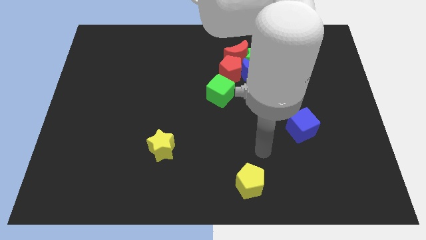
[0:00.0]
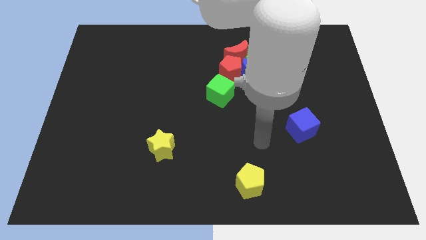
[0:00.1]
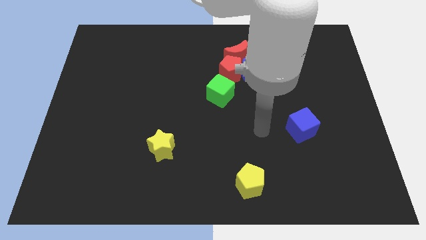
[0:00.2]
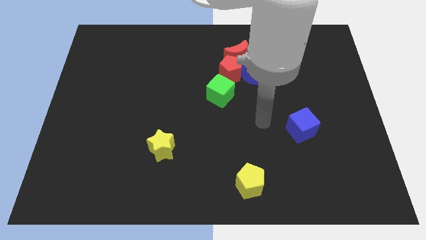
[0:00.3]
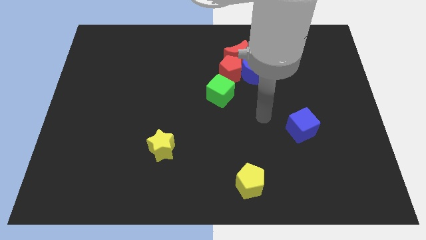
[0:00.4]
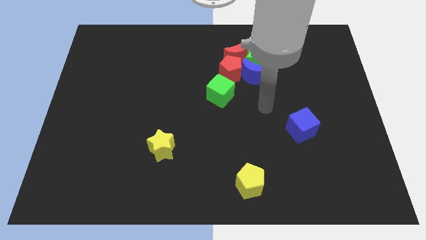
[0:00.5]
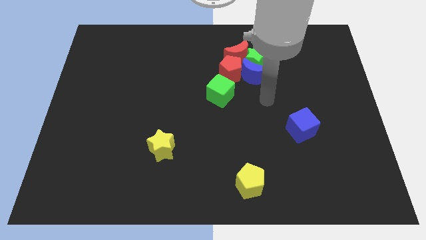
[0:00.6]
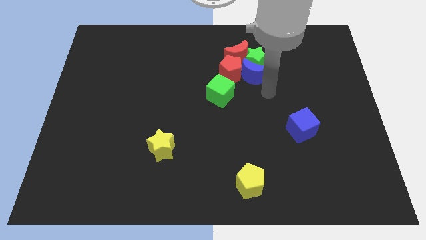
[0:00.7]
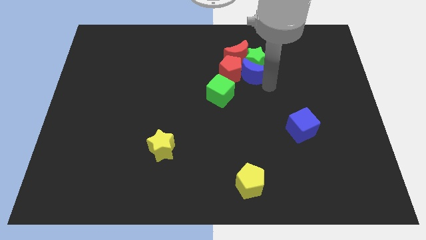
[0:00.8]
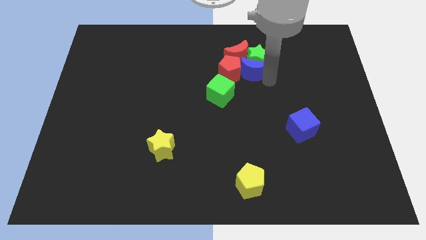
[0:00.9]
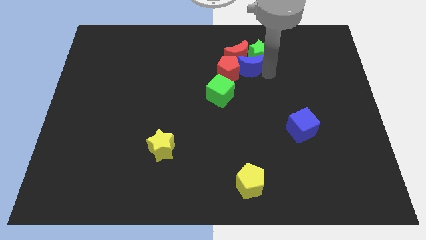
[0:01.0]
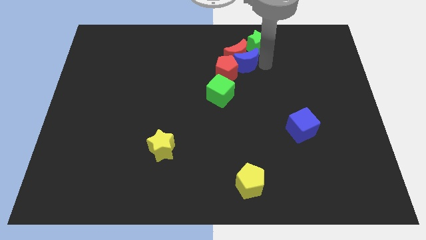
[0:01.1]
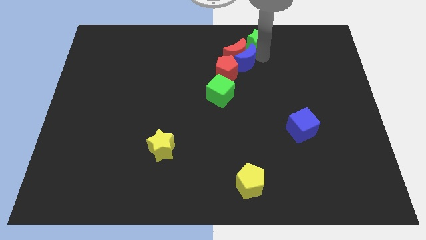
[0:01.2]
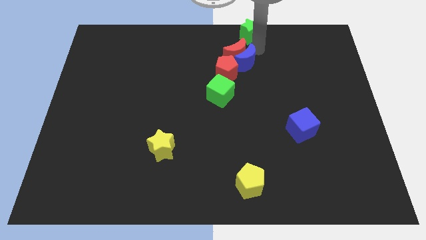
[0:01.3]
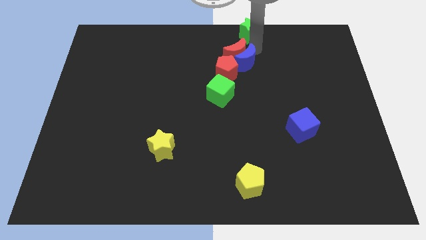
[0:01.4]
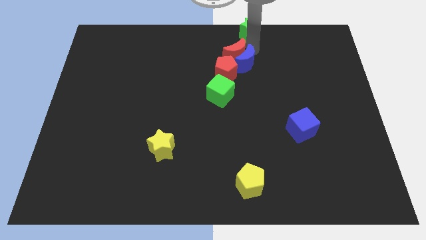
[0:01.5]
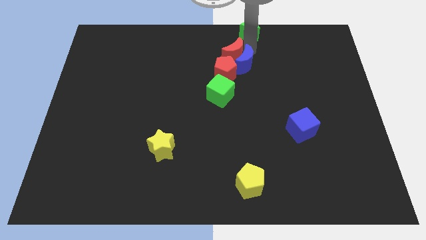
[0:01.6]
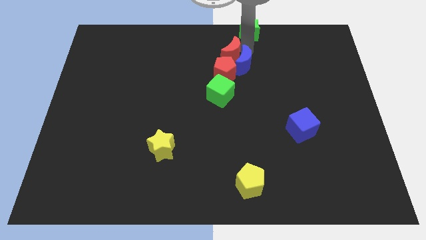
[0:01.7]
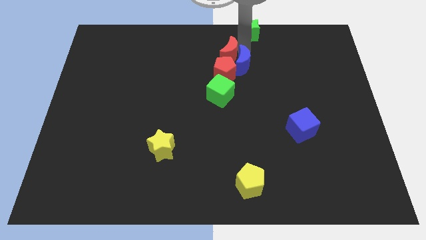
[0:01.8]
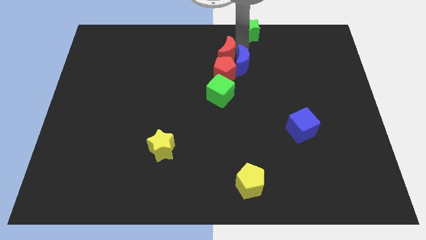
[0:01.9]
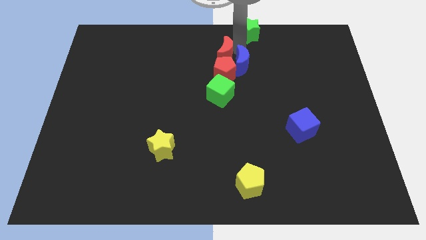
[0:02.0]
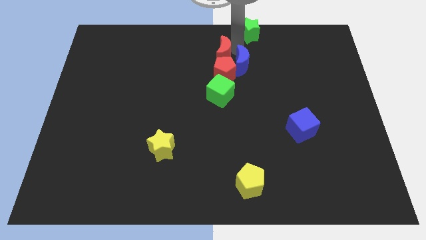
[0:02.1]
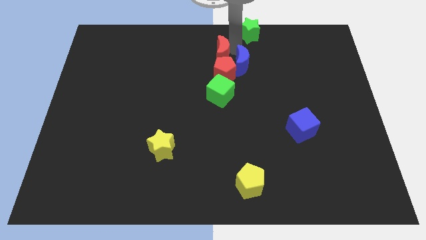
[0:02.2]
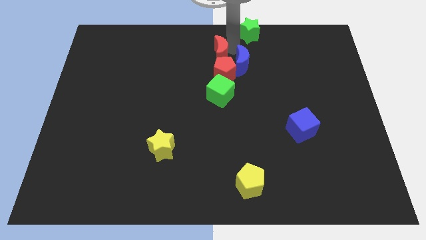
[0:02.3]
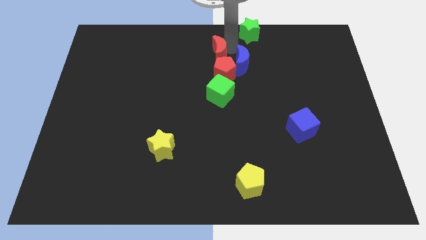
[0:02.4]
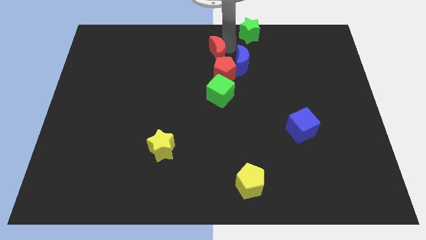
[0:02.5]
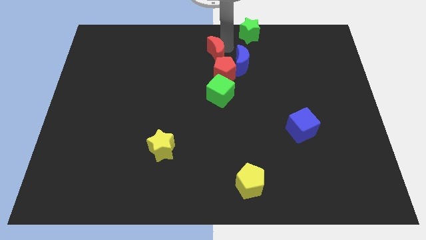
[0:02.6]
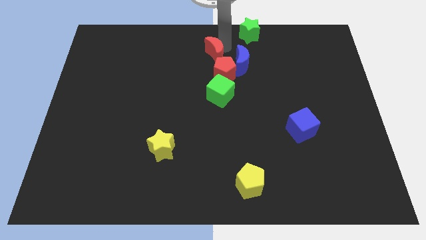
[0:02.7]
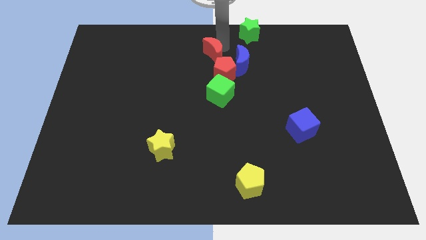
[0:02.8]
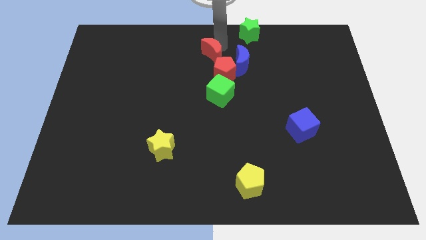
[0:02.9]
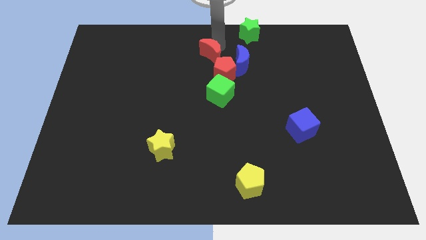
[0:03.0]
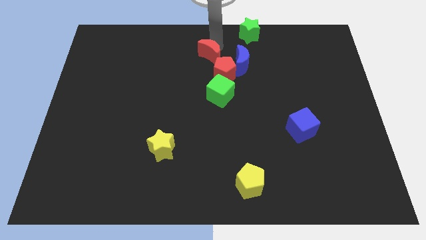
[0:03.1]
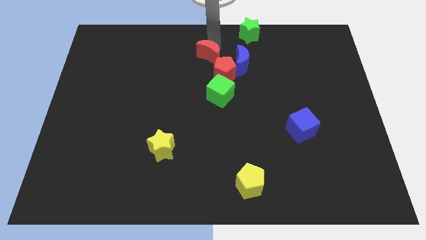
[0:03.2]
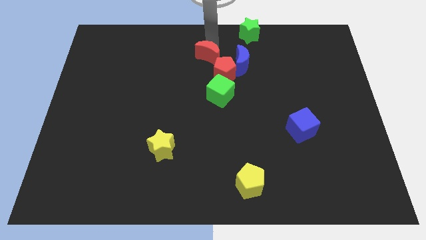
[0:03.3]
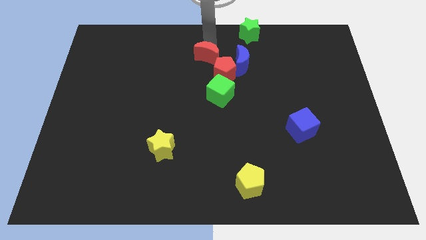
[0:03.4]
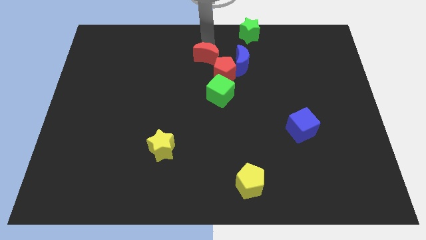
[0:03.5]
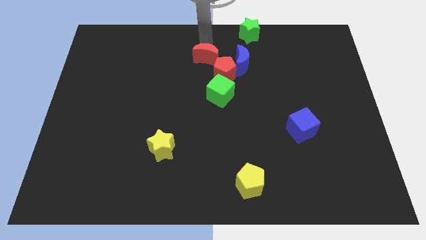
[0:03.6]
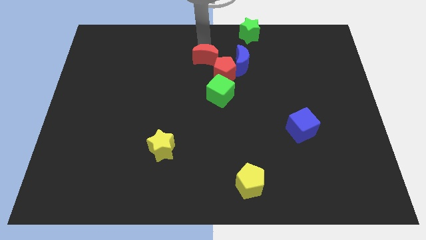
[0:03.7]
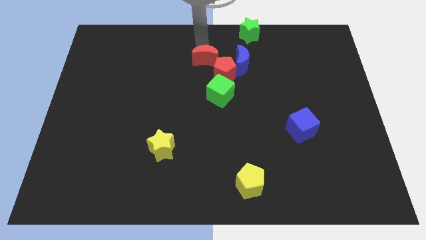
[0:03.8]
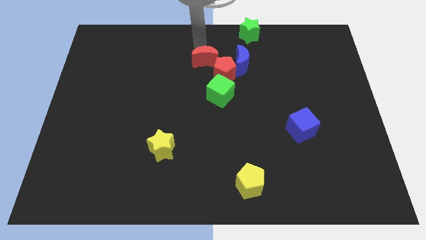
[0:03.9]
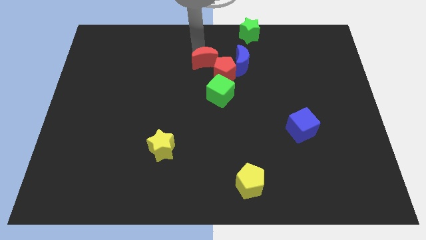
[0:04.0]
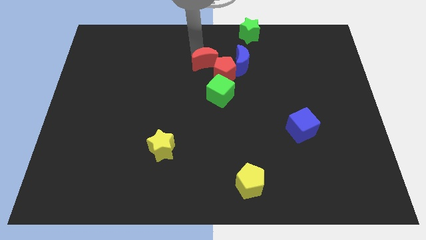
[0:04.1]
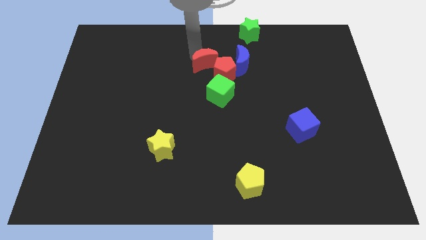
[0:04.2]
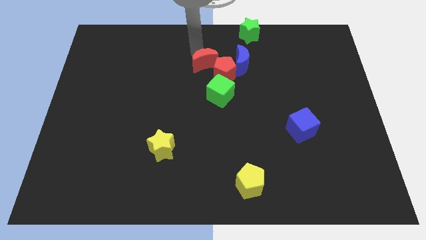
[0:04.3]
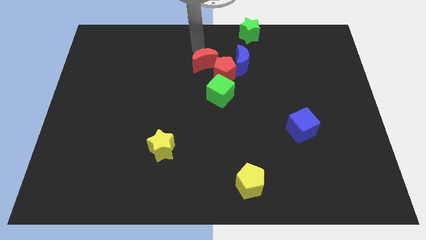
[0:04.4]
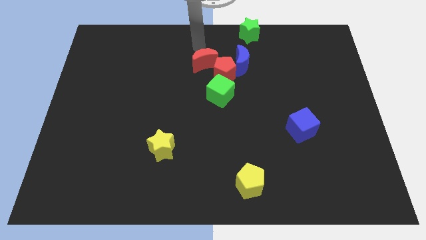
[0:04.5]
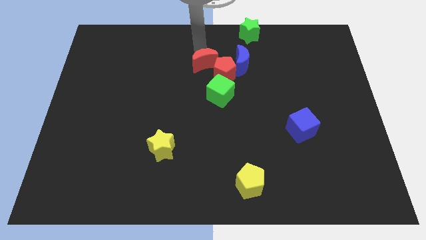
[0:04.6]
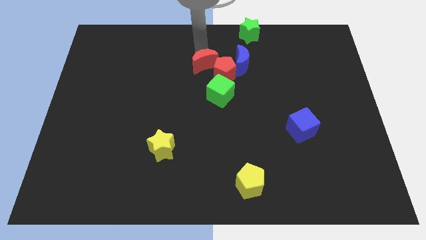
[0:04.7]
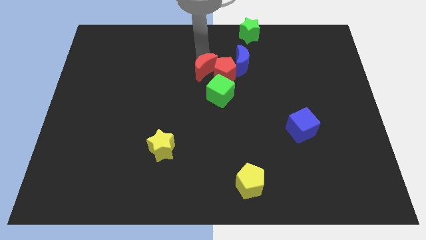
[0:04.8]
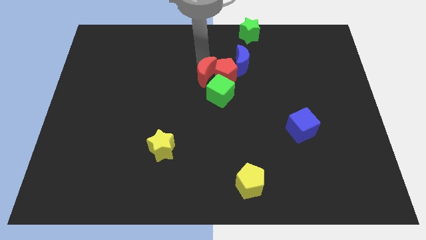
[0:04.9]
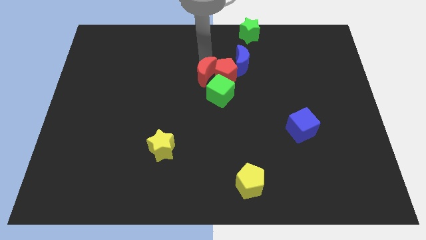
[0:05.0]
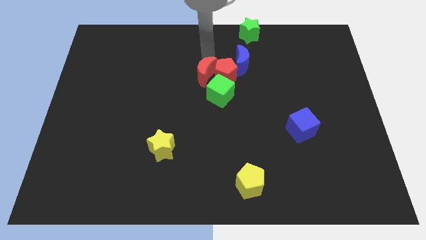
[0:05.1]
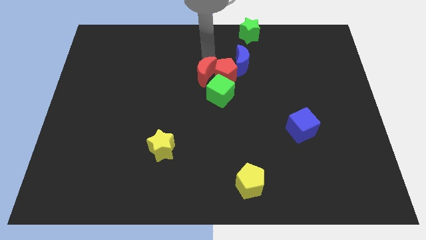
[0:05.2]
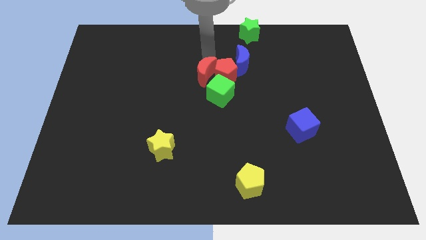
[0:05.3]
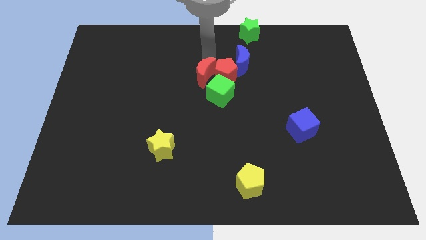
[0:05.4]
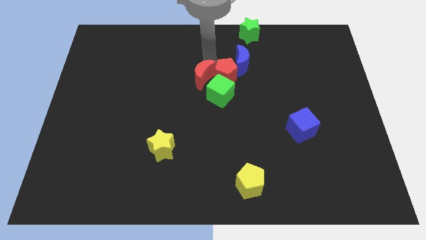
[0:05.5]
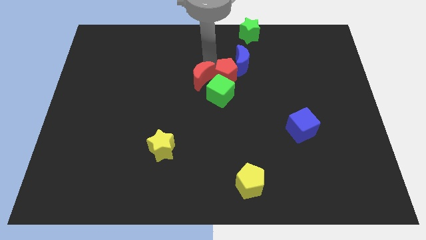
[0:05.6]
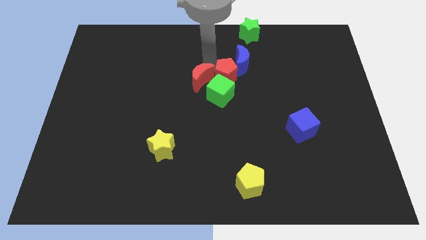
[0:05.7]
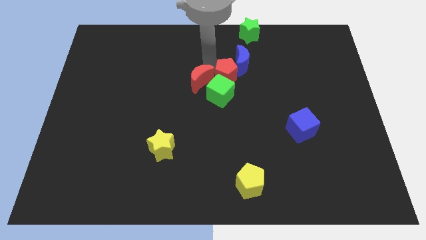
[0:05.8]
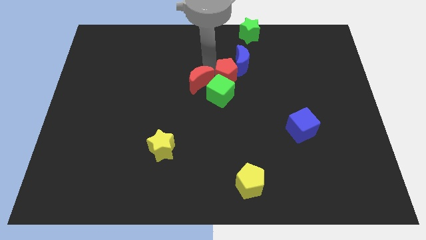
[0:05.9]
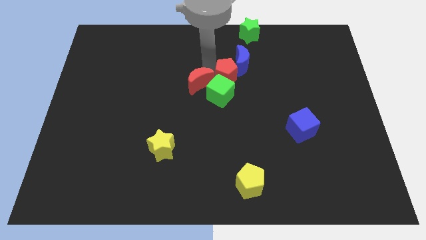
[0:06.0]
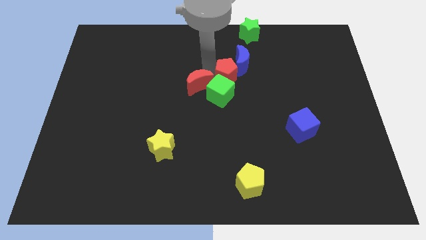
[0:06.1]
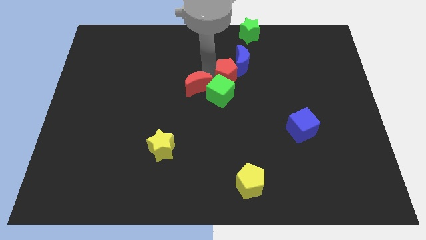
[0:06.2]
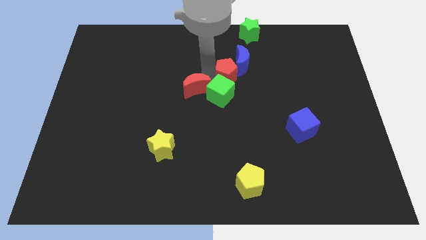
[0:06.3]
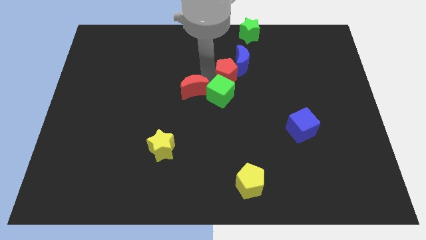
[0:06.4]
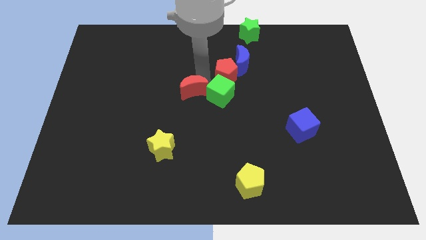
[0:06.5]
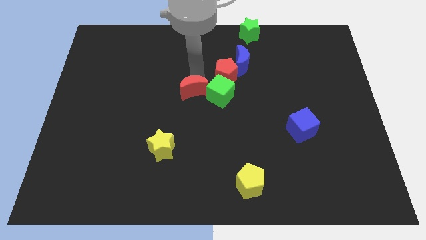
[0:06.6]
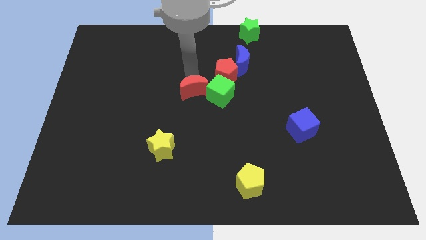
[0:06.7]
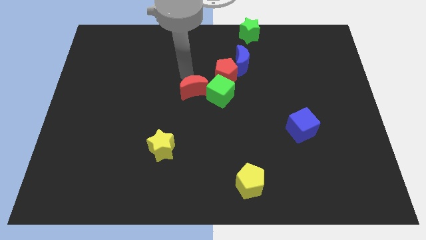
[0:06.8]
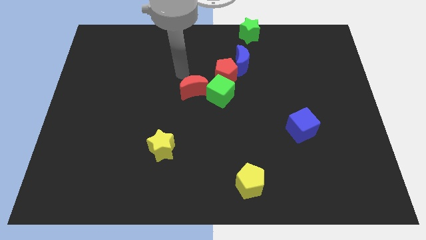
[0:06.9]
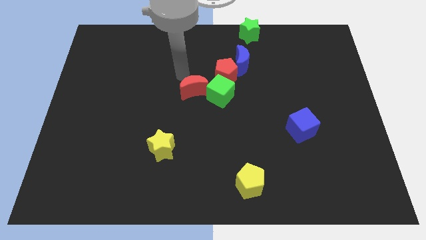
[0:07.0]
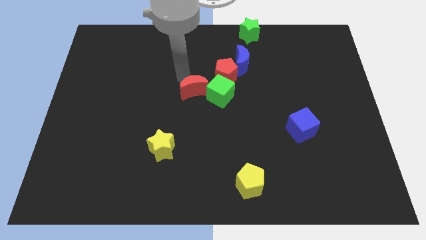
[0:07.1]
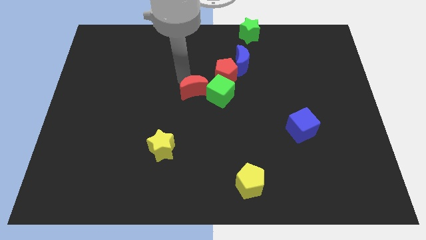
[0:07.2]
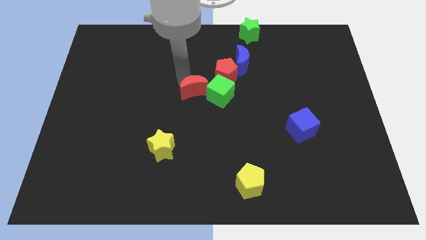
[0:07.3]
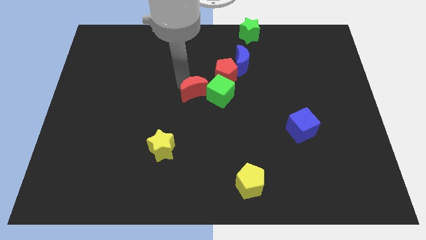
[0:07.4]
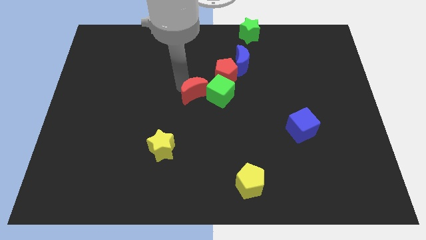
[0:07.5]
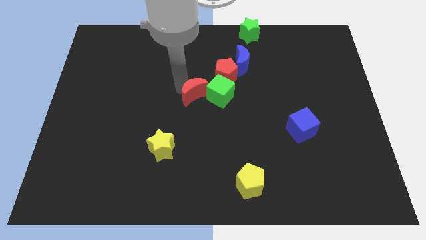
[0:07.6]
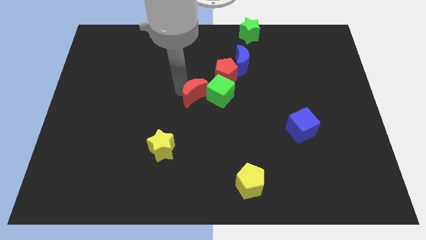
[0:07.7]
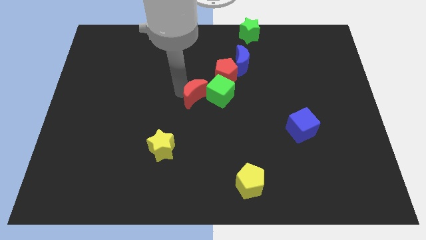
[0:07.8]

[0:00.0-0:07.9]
push the red moon down slightly
